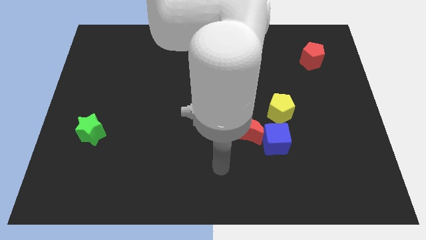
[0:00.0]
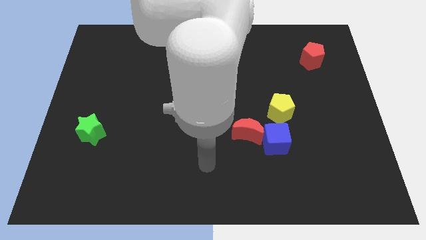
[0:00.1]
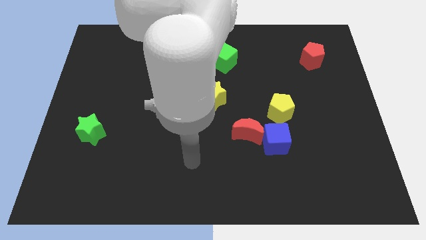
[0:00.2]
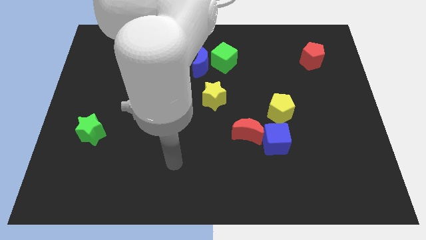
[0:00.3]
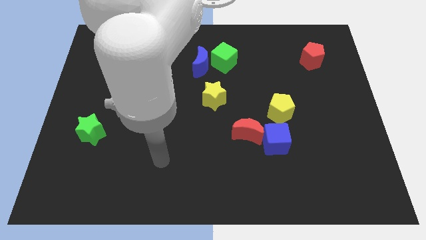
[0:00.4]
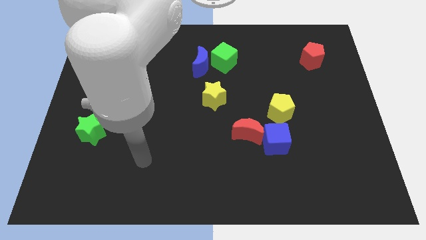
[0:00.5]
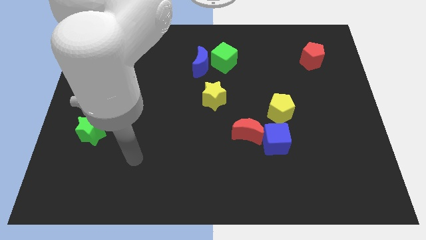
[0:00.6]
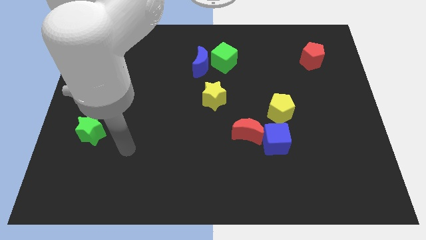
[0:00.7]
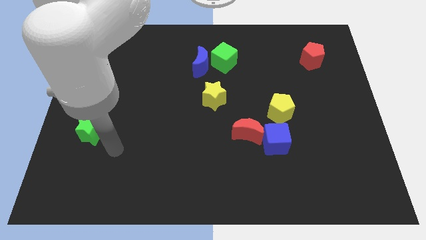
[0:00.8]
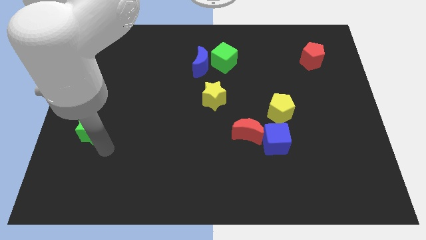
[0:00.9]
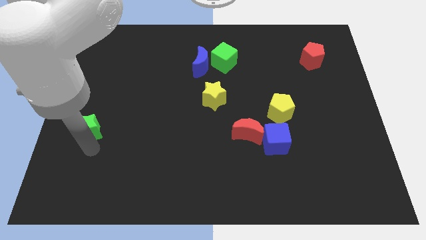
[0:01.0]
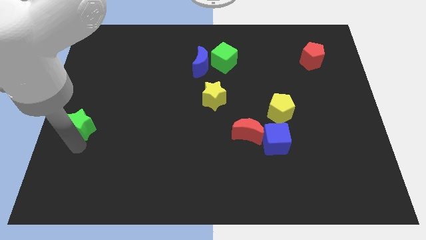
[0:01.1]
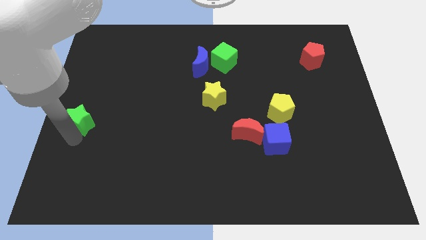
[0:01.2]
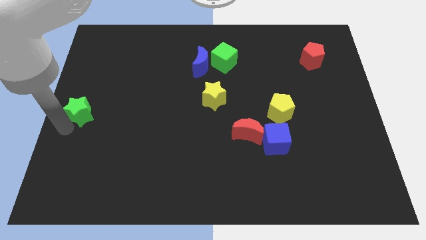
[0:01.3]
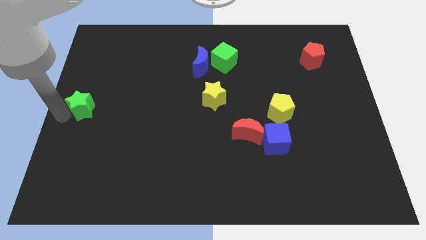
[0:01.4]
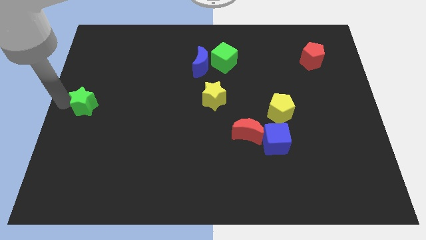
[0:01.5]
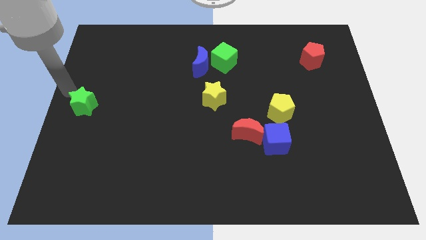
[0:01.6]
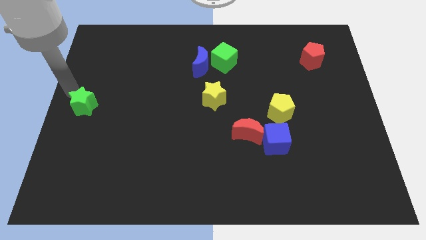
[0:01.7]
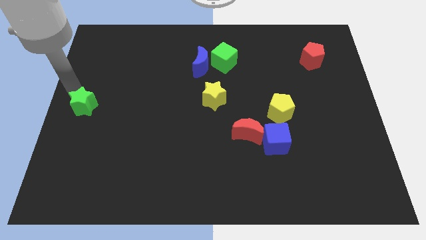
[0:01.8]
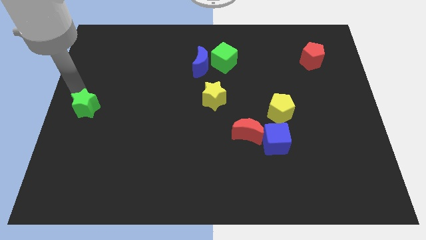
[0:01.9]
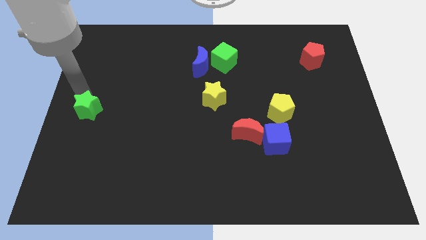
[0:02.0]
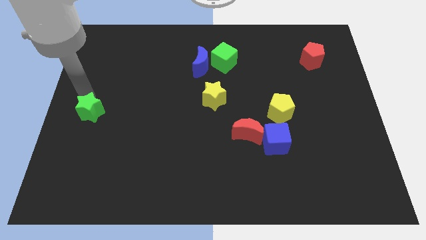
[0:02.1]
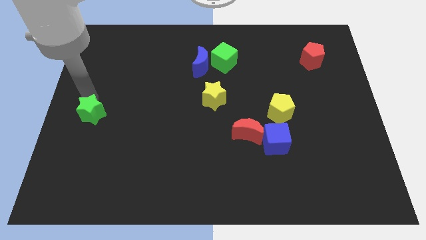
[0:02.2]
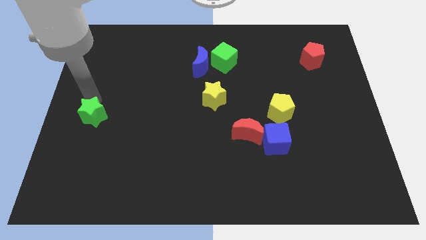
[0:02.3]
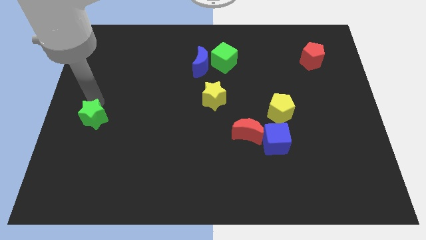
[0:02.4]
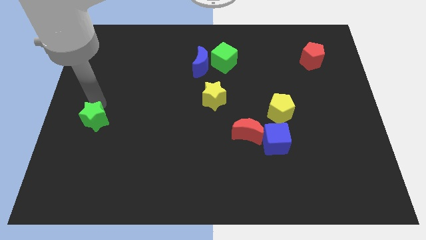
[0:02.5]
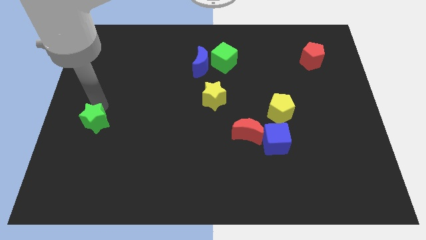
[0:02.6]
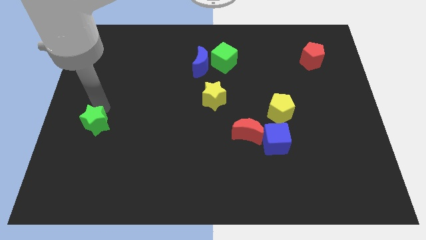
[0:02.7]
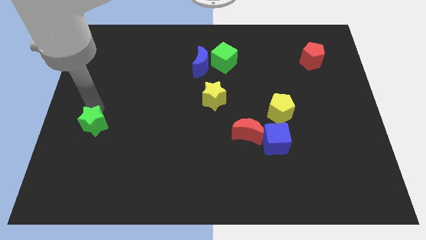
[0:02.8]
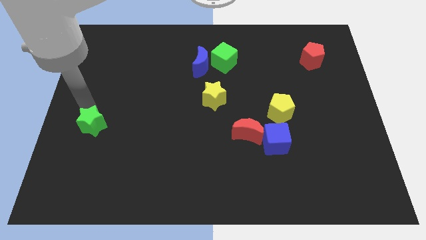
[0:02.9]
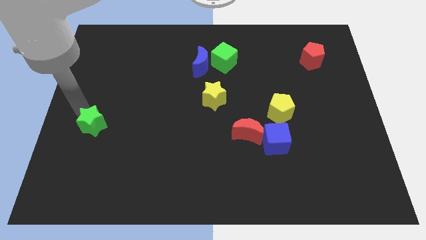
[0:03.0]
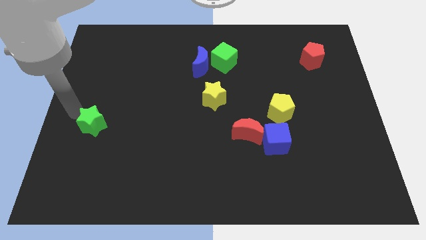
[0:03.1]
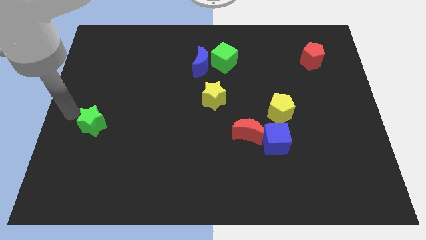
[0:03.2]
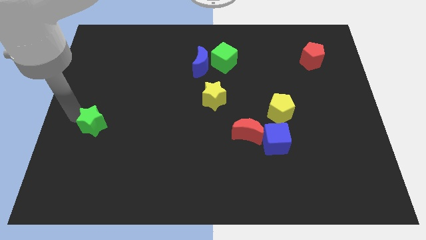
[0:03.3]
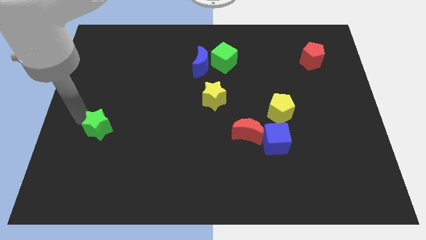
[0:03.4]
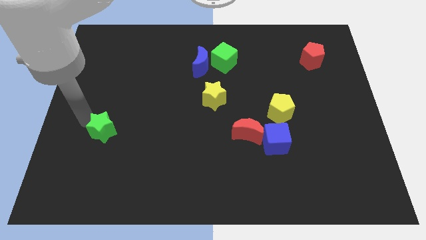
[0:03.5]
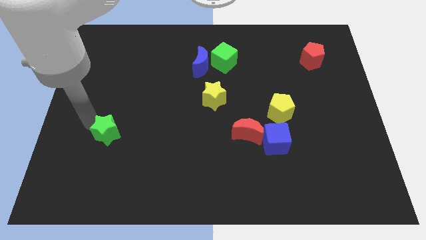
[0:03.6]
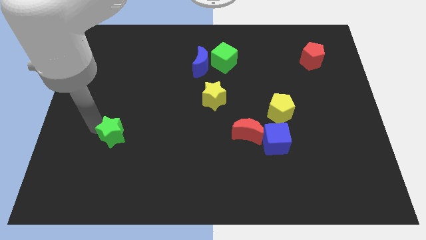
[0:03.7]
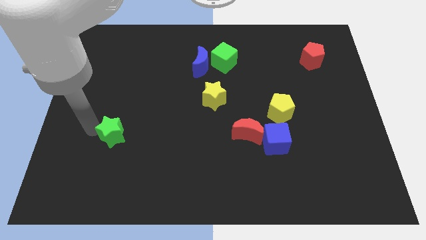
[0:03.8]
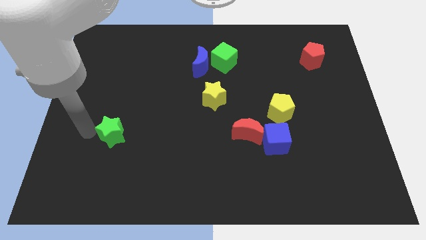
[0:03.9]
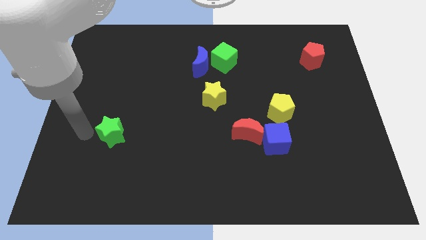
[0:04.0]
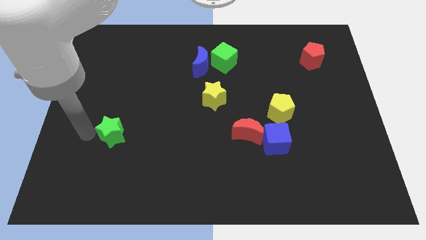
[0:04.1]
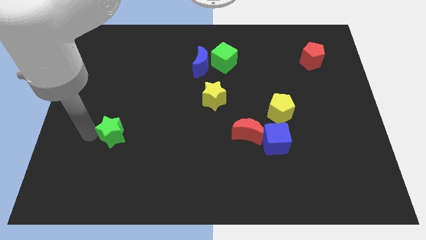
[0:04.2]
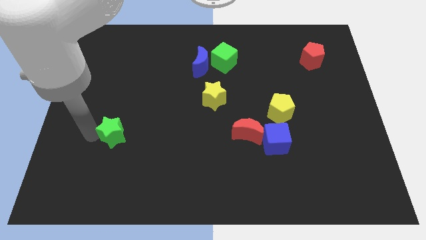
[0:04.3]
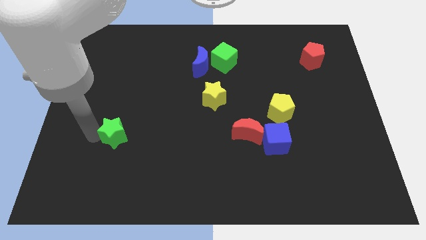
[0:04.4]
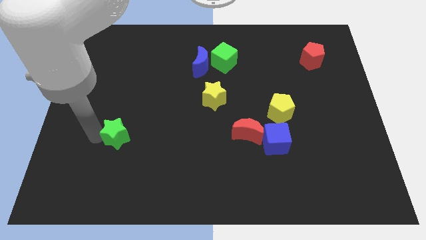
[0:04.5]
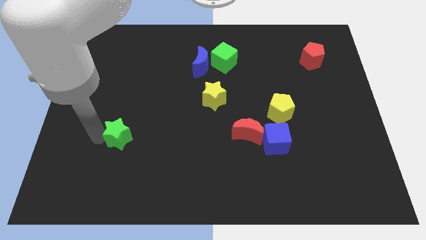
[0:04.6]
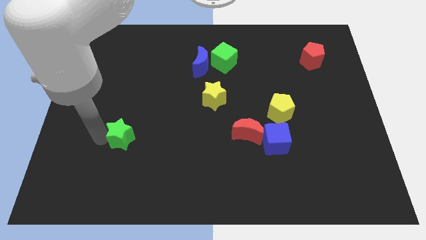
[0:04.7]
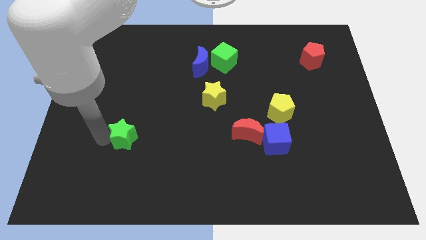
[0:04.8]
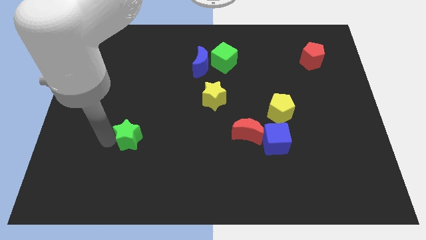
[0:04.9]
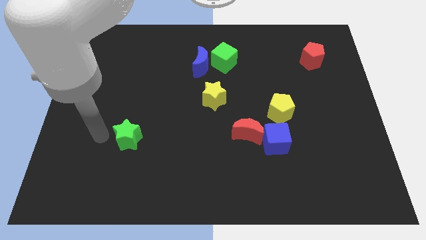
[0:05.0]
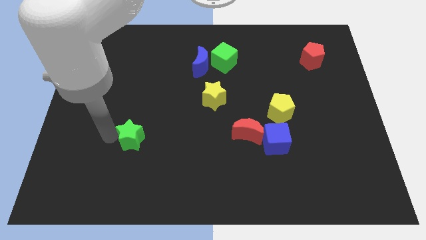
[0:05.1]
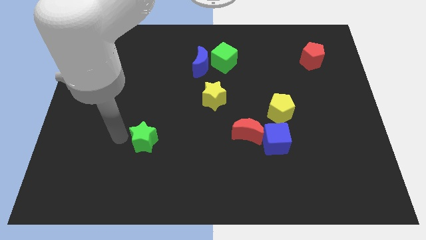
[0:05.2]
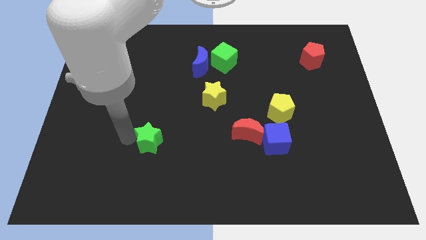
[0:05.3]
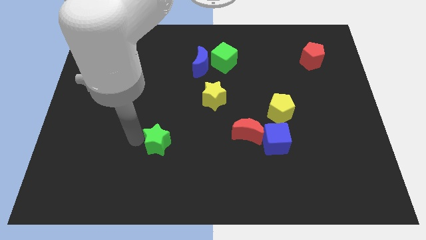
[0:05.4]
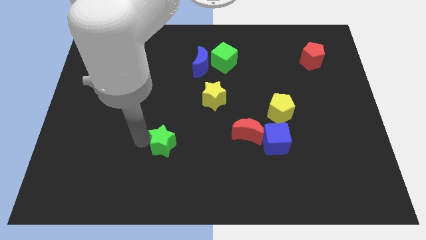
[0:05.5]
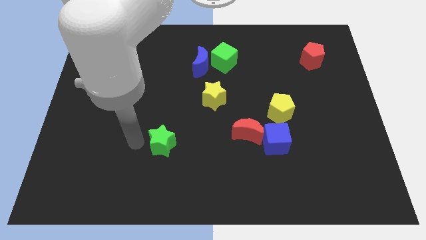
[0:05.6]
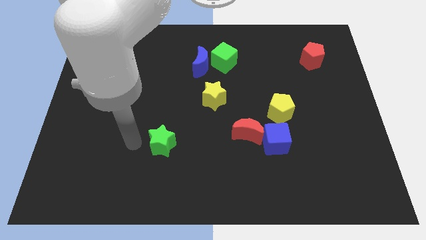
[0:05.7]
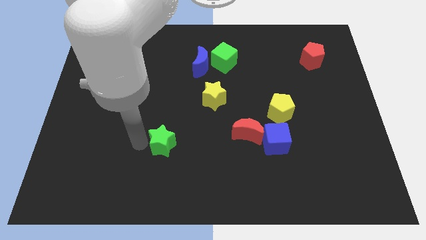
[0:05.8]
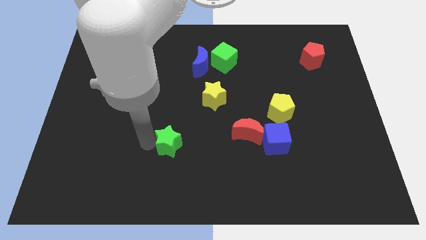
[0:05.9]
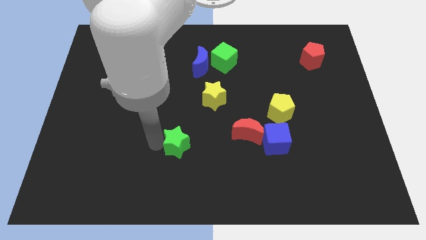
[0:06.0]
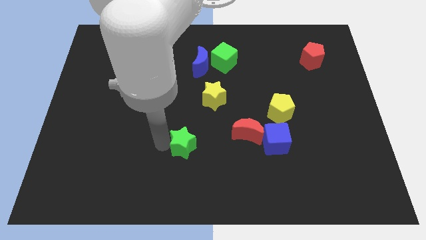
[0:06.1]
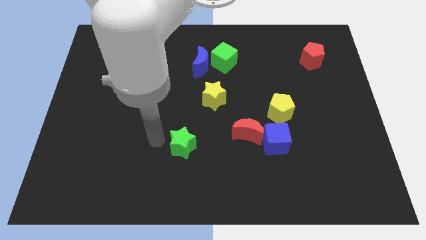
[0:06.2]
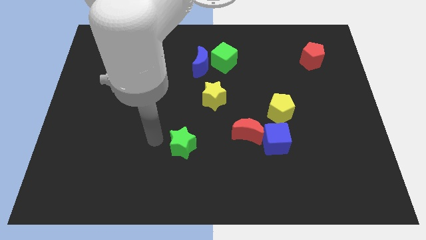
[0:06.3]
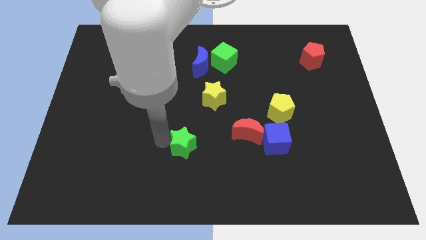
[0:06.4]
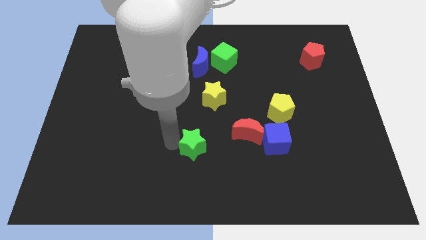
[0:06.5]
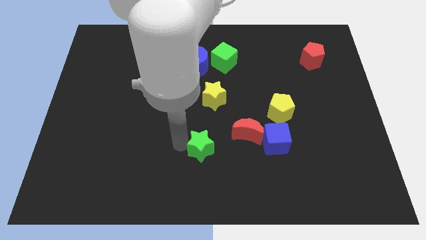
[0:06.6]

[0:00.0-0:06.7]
push the green star to the bottom left side of the red moon

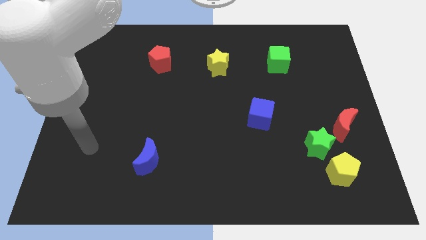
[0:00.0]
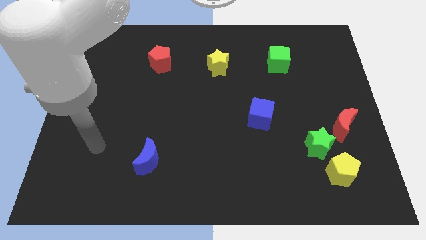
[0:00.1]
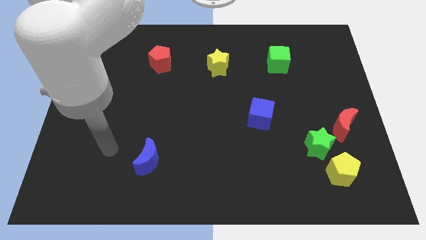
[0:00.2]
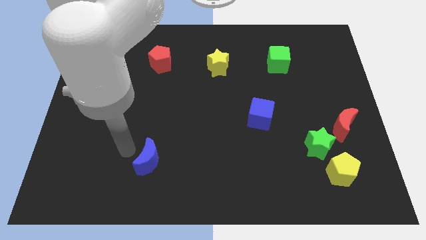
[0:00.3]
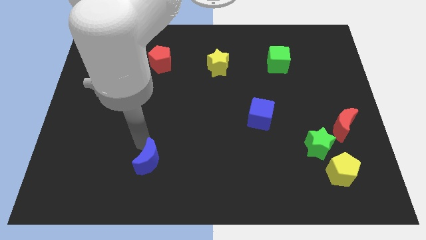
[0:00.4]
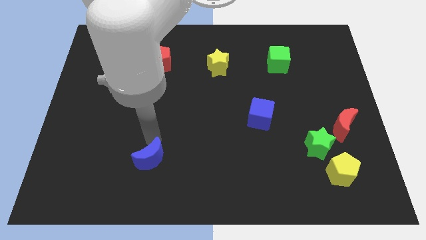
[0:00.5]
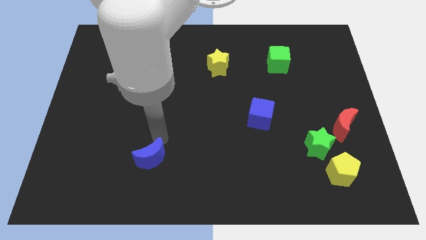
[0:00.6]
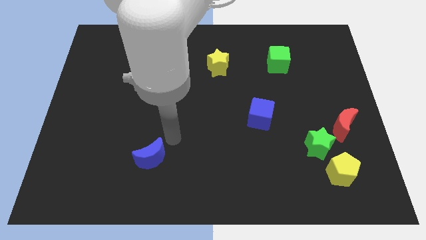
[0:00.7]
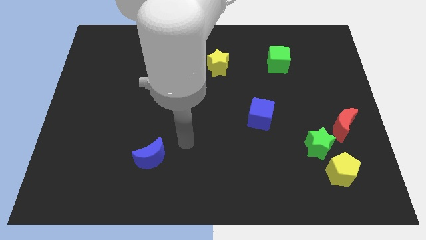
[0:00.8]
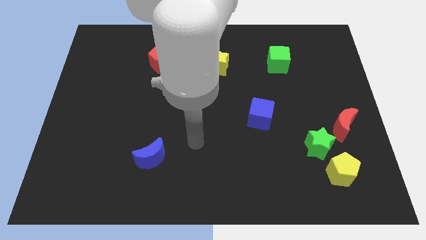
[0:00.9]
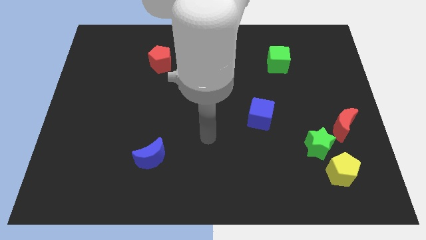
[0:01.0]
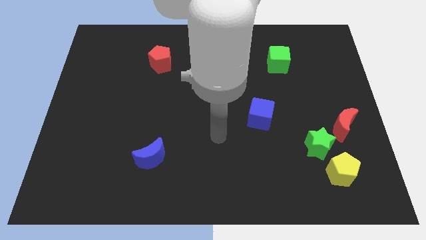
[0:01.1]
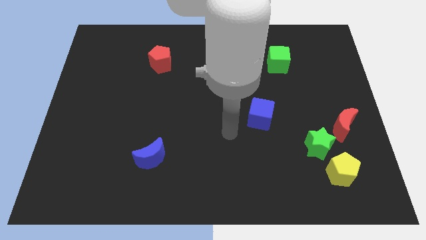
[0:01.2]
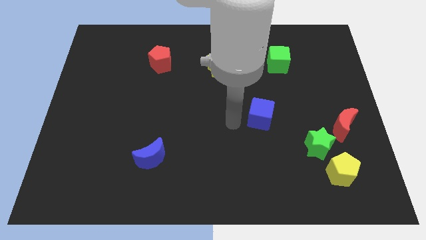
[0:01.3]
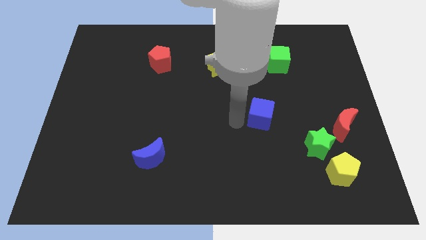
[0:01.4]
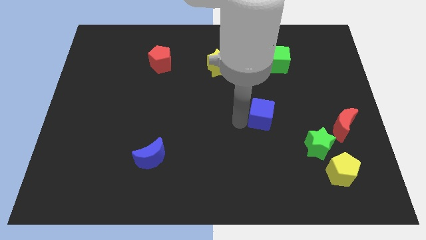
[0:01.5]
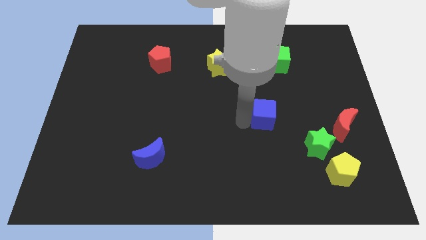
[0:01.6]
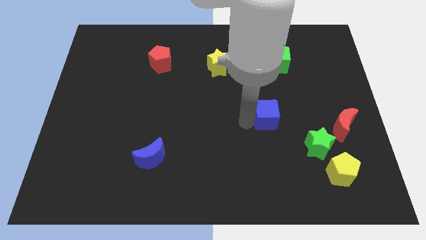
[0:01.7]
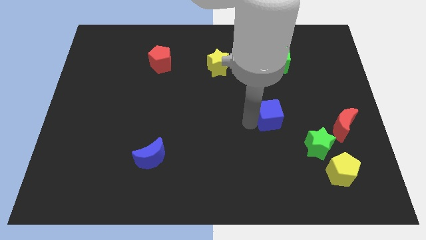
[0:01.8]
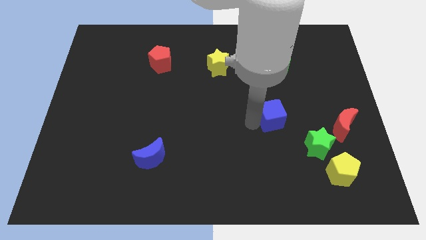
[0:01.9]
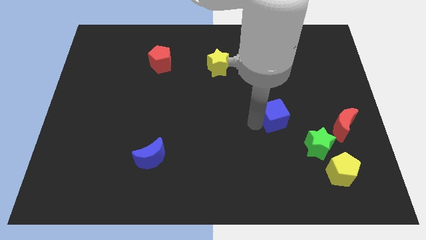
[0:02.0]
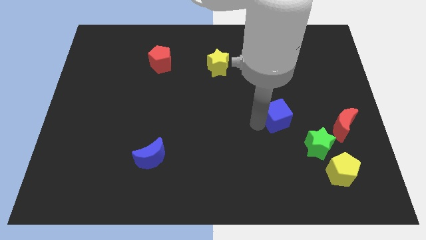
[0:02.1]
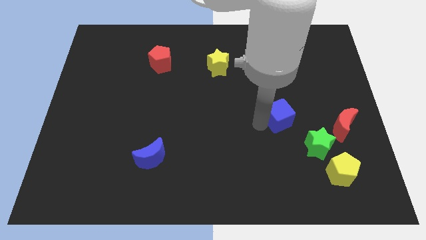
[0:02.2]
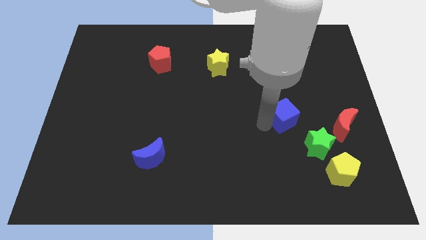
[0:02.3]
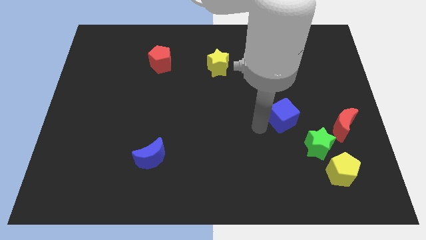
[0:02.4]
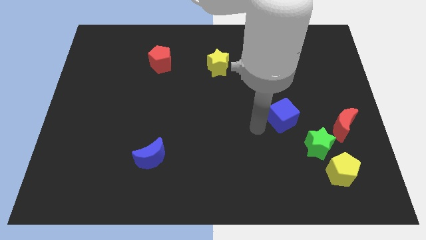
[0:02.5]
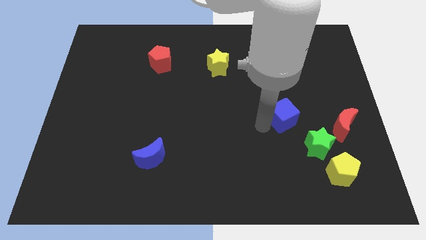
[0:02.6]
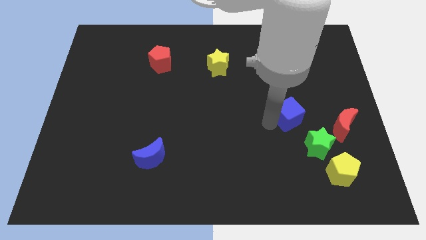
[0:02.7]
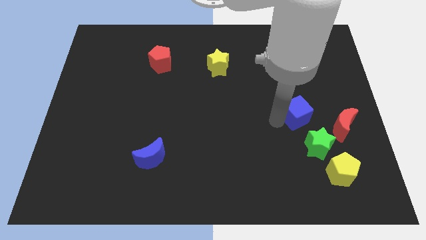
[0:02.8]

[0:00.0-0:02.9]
push the blue cube to the top of the green star
